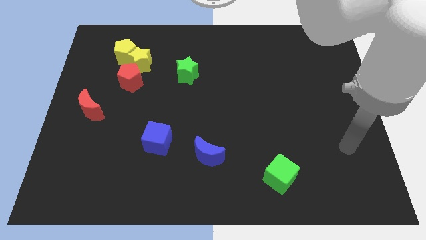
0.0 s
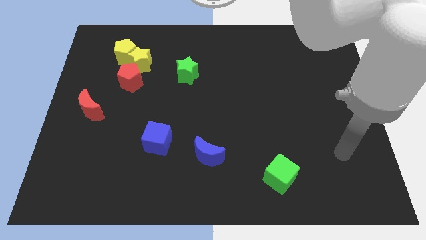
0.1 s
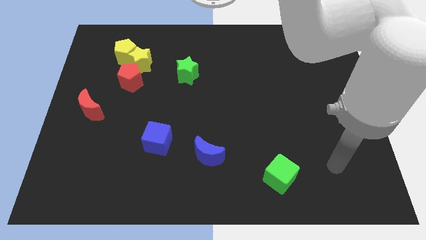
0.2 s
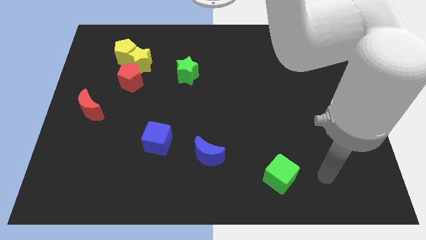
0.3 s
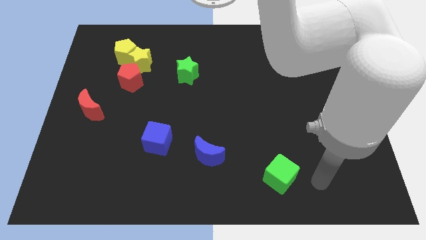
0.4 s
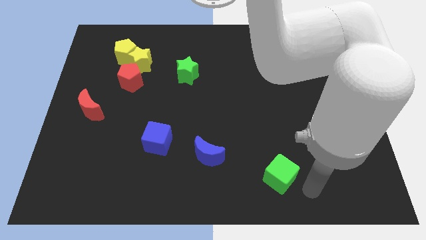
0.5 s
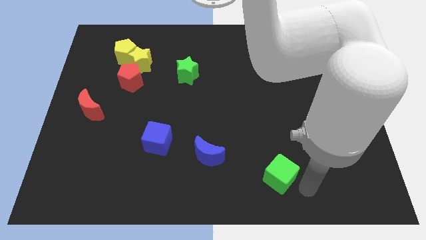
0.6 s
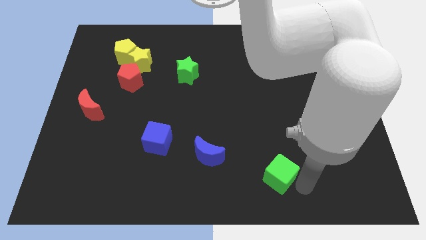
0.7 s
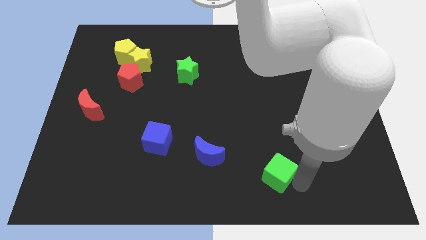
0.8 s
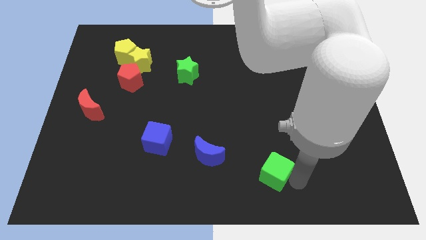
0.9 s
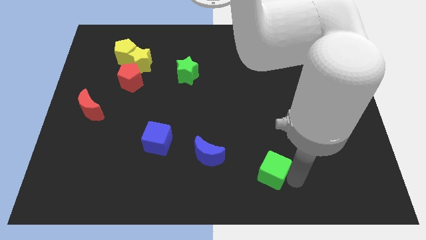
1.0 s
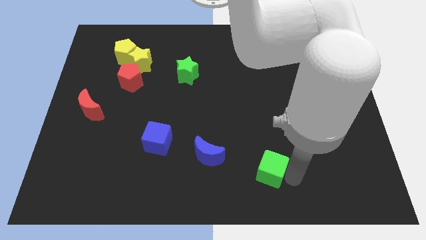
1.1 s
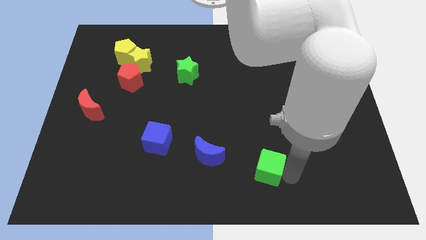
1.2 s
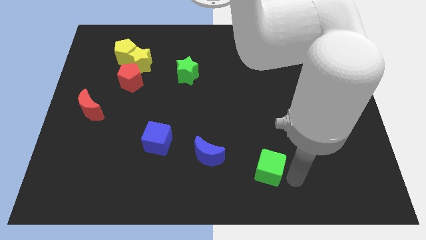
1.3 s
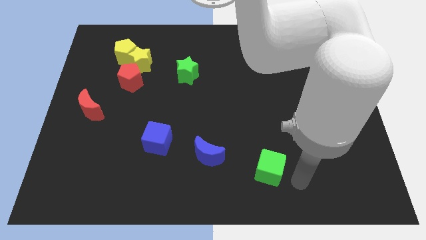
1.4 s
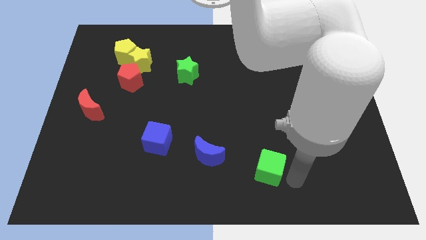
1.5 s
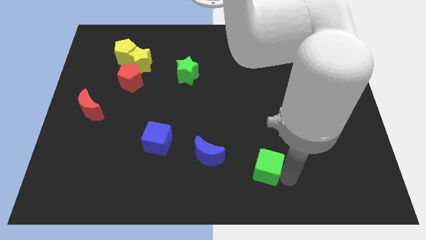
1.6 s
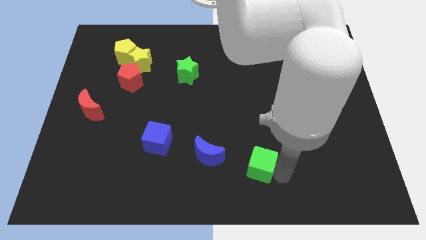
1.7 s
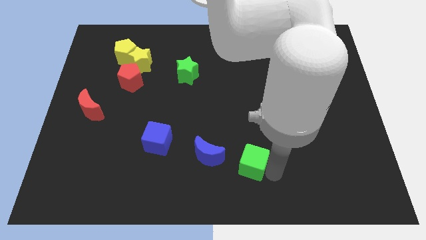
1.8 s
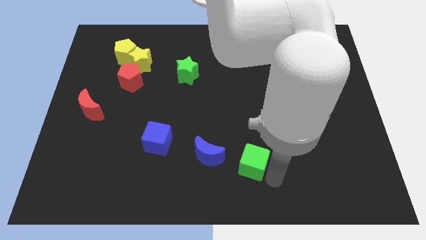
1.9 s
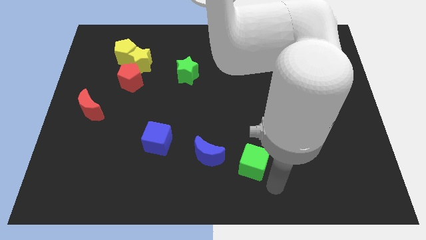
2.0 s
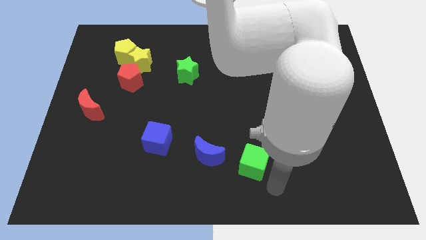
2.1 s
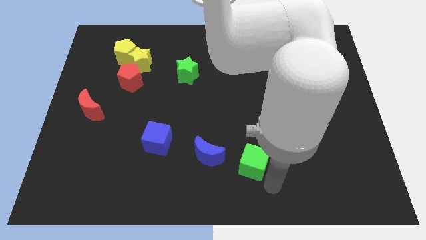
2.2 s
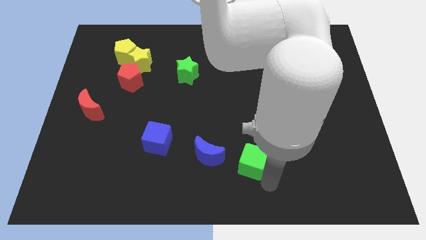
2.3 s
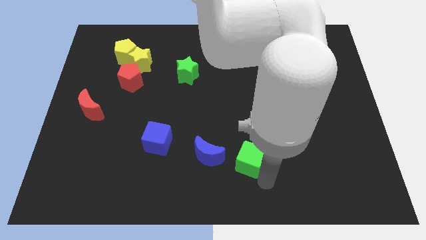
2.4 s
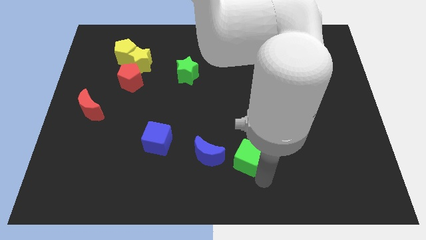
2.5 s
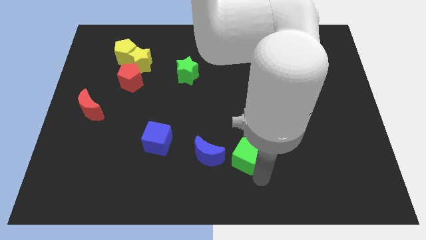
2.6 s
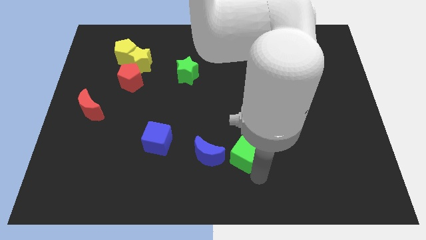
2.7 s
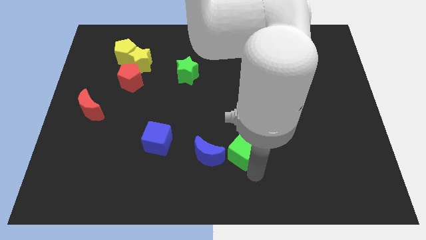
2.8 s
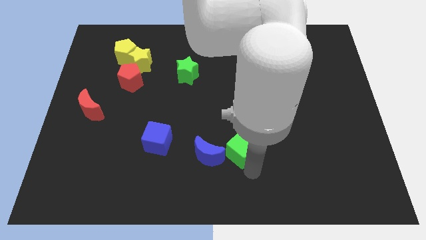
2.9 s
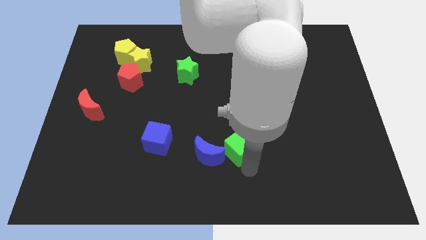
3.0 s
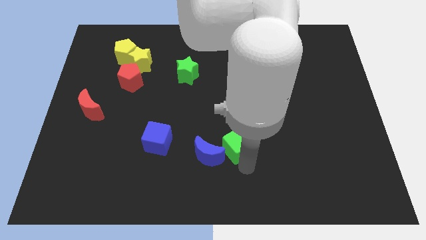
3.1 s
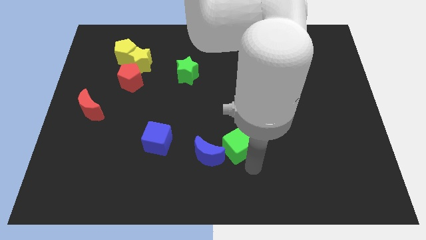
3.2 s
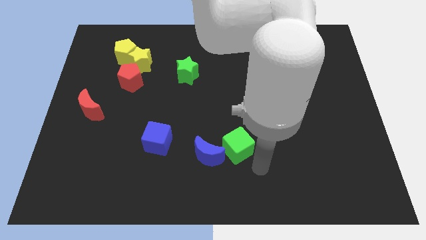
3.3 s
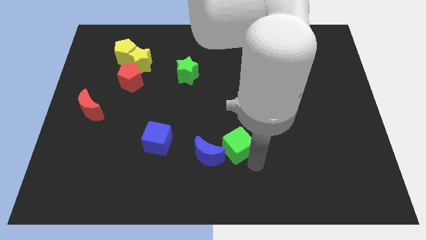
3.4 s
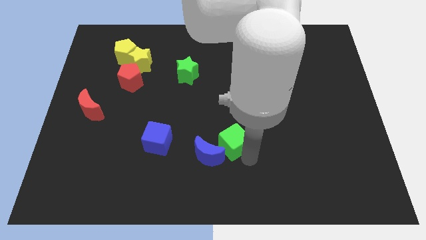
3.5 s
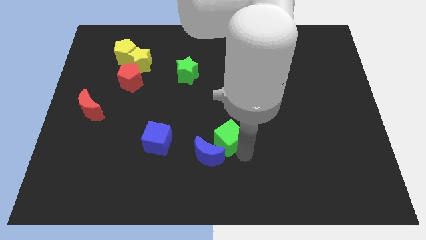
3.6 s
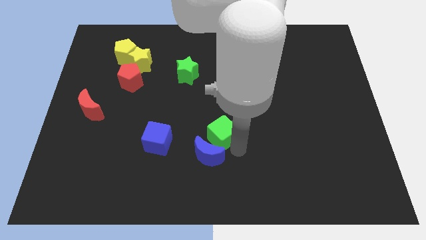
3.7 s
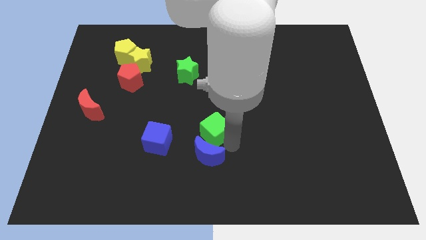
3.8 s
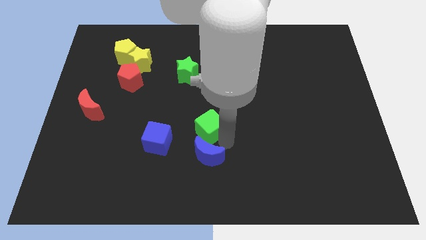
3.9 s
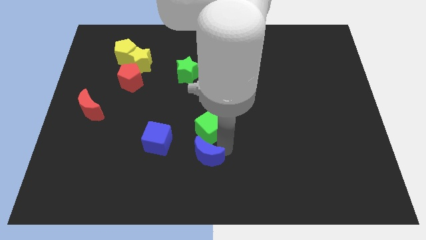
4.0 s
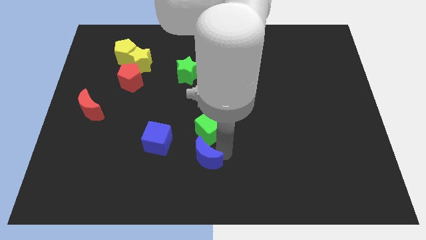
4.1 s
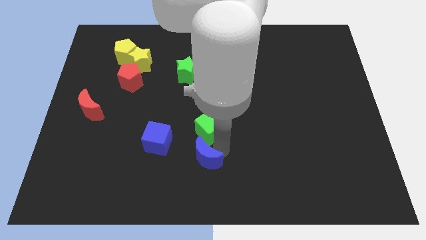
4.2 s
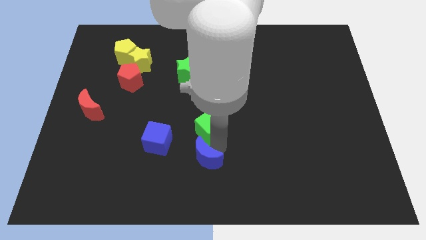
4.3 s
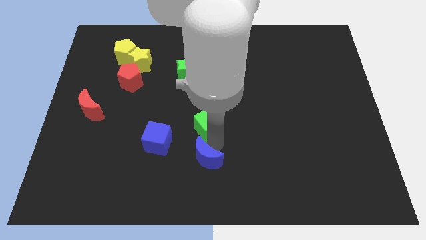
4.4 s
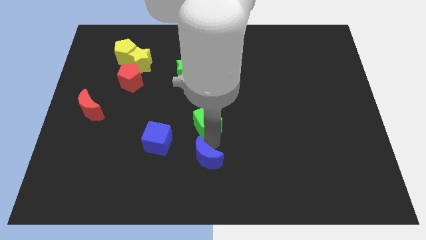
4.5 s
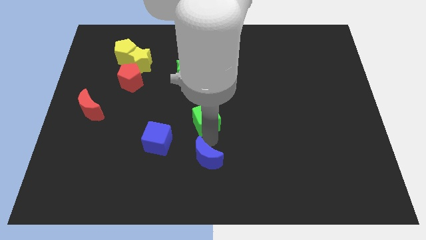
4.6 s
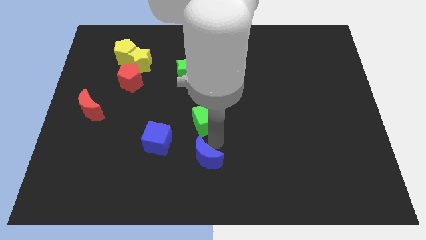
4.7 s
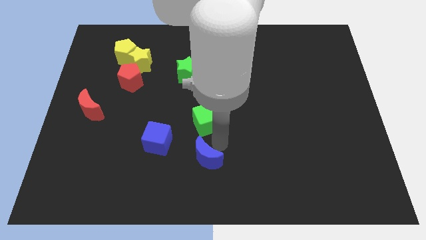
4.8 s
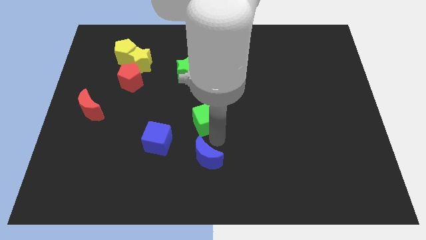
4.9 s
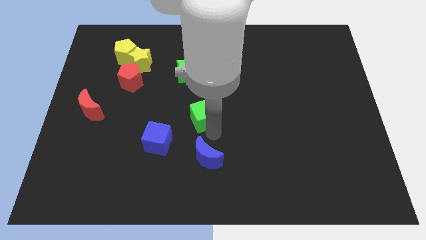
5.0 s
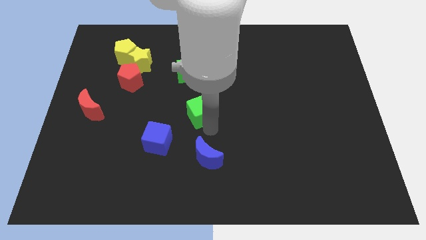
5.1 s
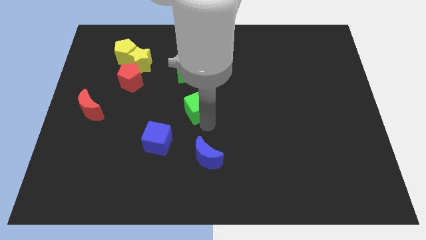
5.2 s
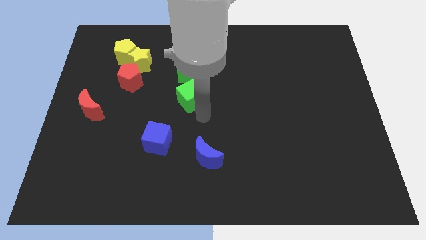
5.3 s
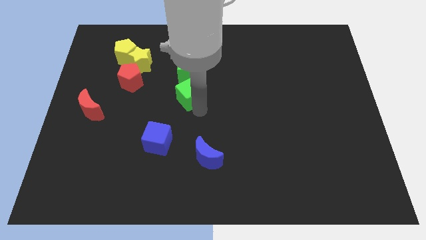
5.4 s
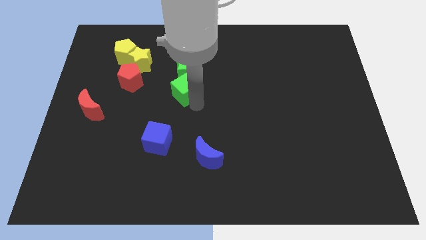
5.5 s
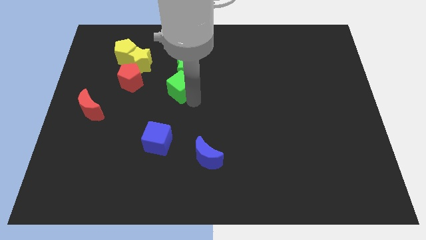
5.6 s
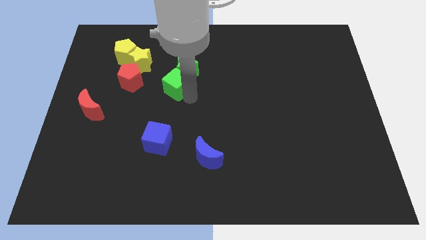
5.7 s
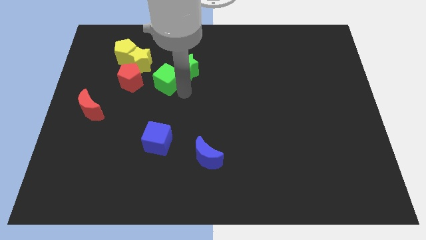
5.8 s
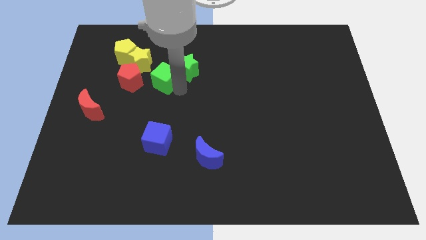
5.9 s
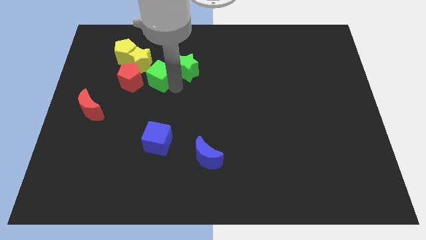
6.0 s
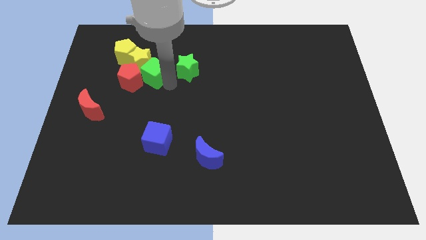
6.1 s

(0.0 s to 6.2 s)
slide the green cube next to the yellow star
